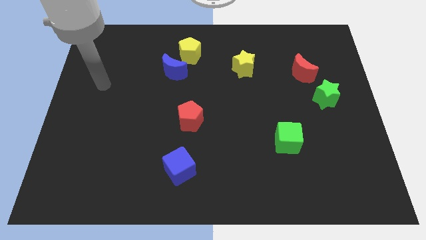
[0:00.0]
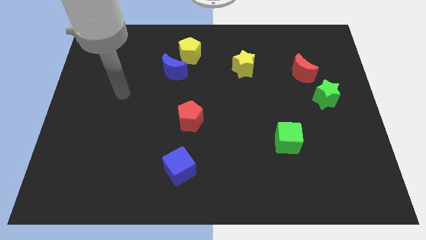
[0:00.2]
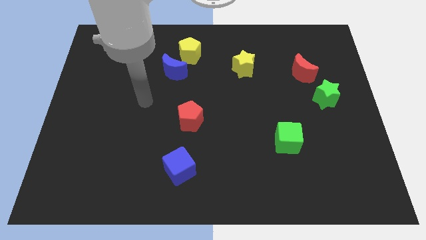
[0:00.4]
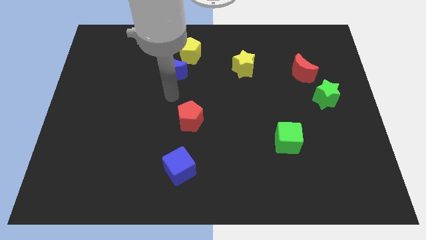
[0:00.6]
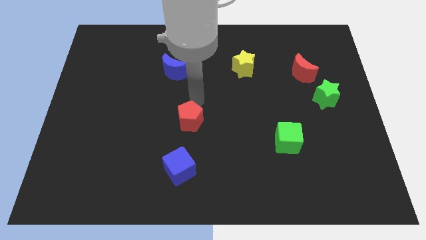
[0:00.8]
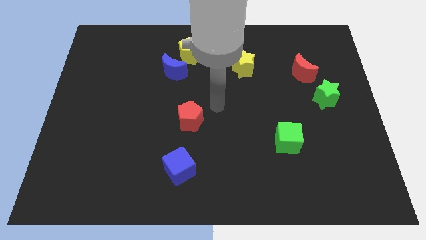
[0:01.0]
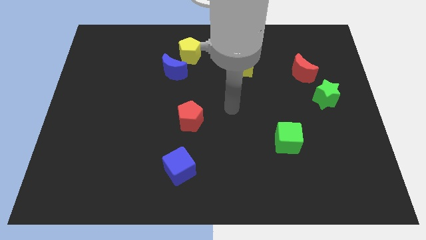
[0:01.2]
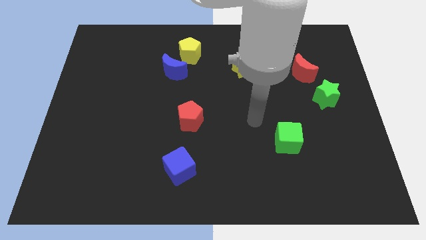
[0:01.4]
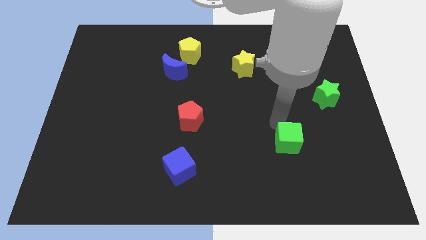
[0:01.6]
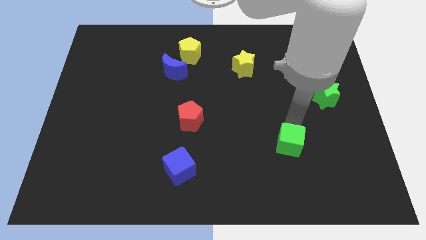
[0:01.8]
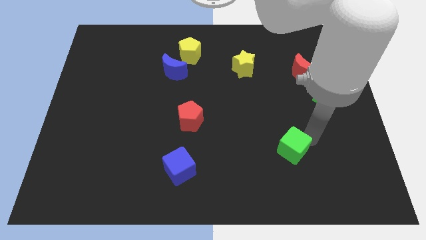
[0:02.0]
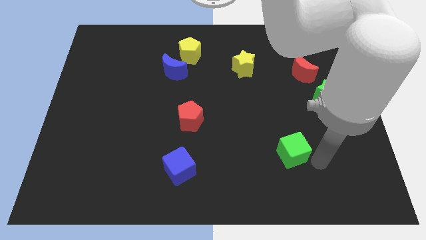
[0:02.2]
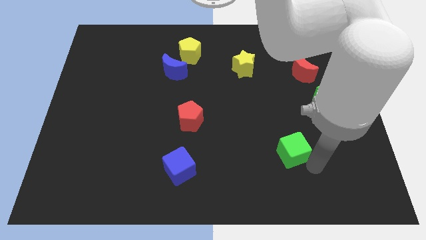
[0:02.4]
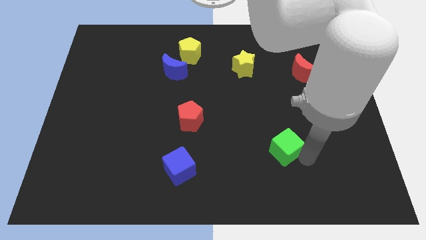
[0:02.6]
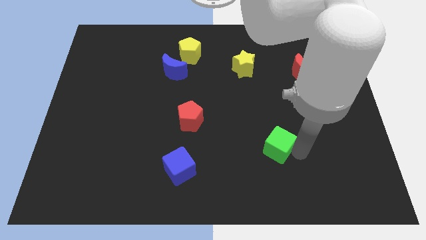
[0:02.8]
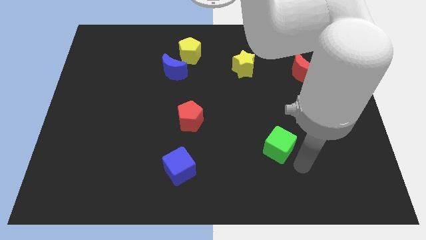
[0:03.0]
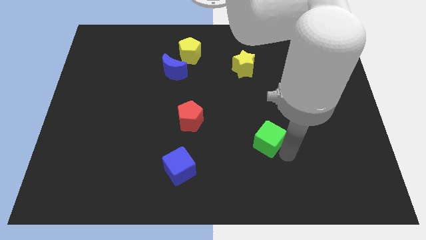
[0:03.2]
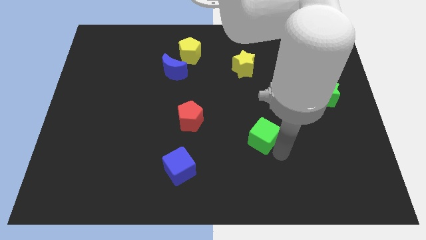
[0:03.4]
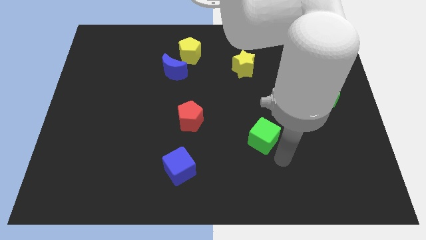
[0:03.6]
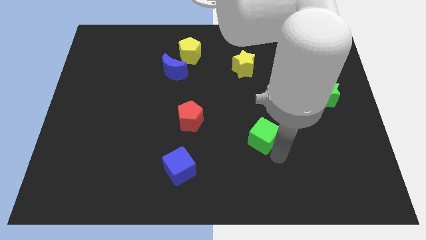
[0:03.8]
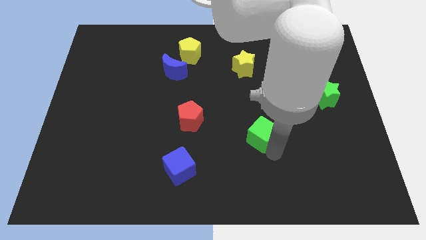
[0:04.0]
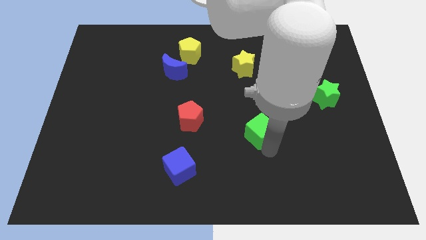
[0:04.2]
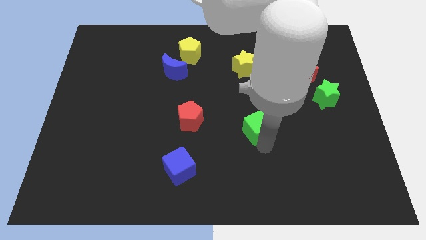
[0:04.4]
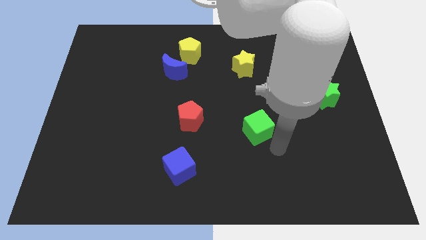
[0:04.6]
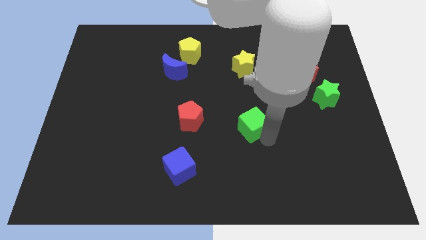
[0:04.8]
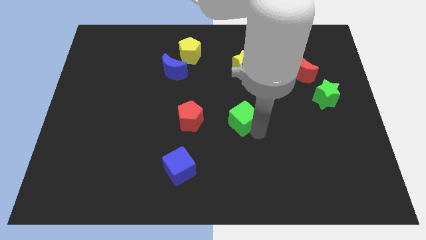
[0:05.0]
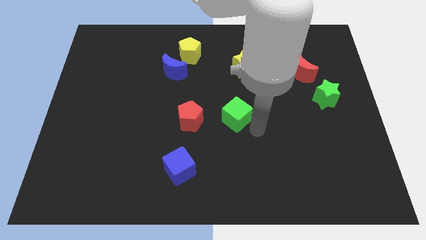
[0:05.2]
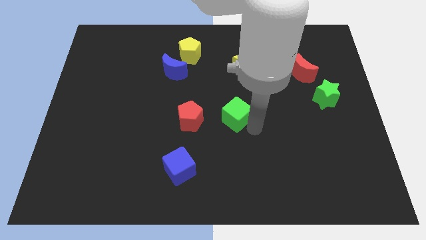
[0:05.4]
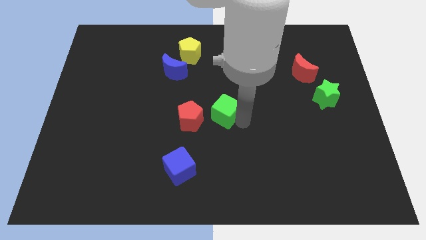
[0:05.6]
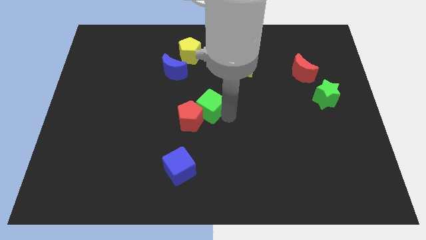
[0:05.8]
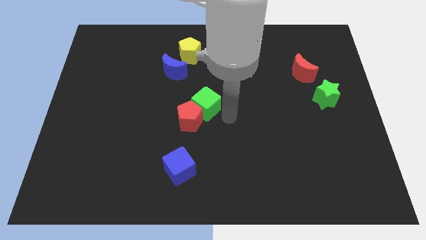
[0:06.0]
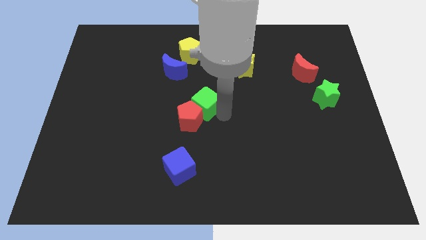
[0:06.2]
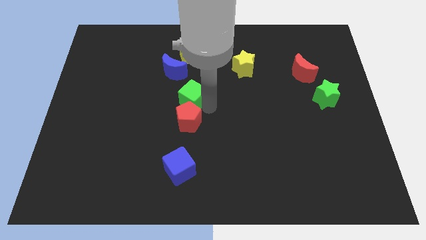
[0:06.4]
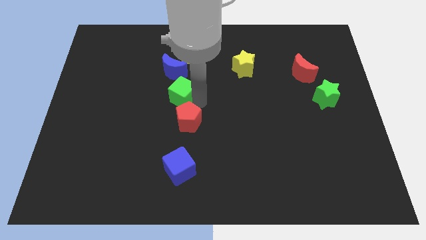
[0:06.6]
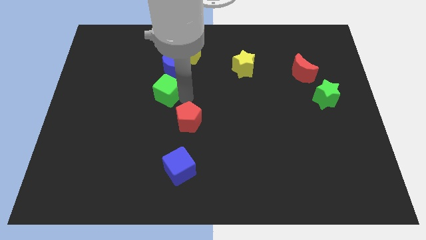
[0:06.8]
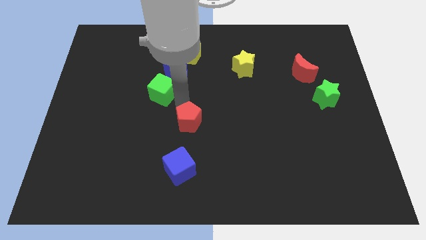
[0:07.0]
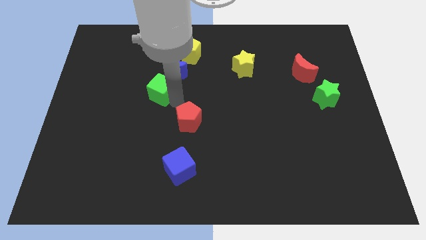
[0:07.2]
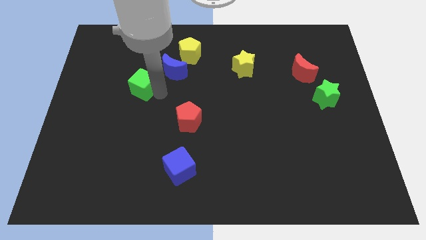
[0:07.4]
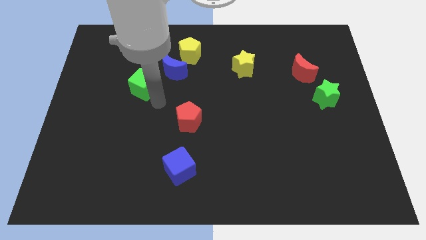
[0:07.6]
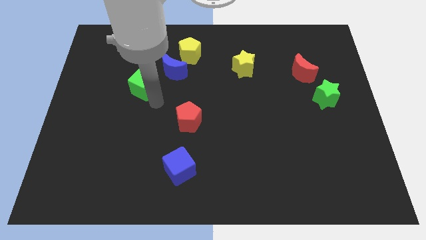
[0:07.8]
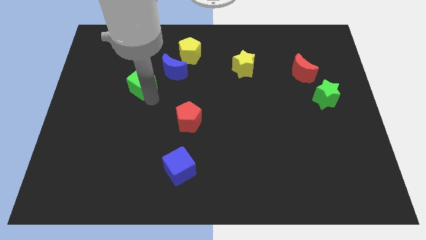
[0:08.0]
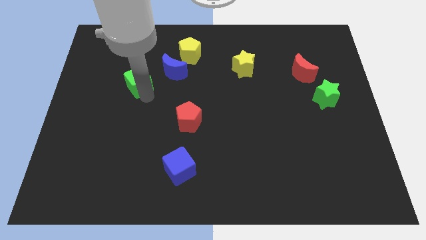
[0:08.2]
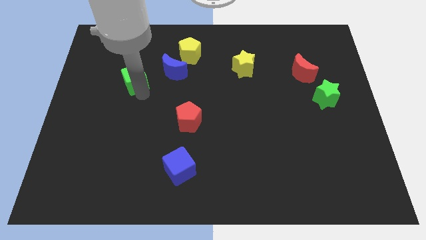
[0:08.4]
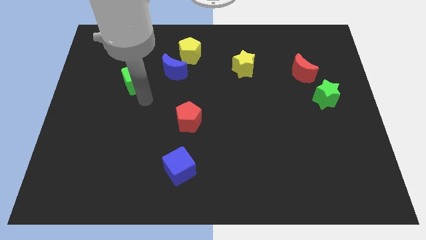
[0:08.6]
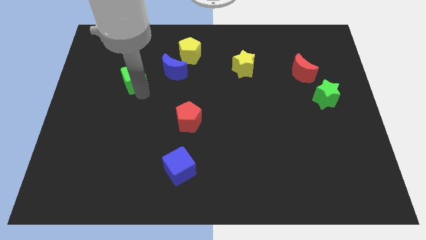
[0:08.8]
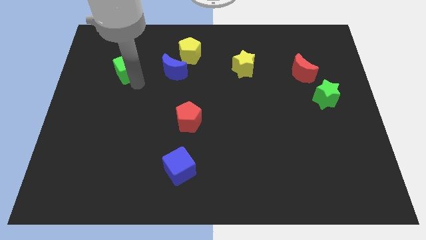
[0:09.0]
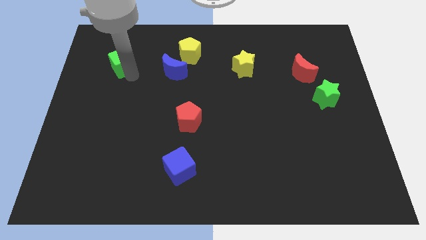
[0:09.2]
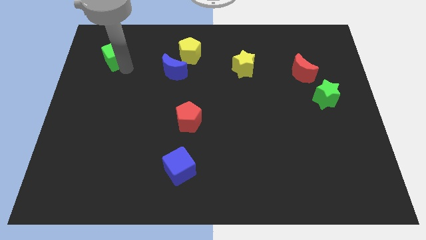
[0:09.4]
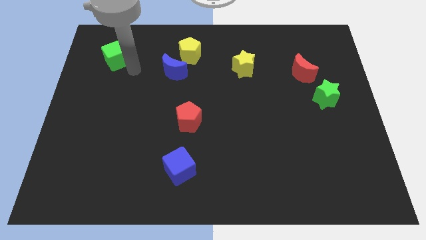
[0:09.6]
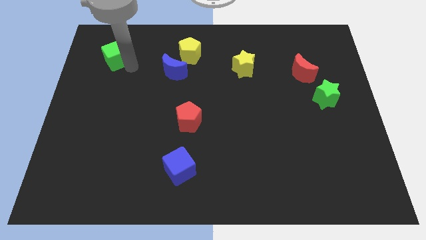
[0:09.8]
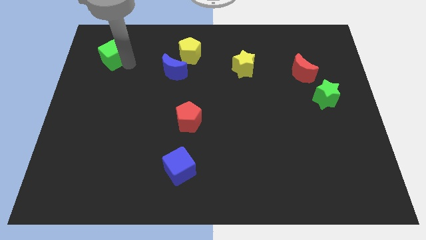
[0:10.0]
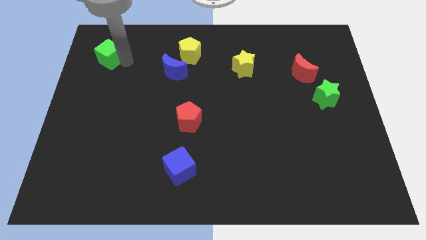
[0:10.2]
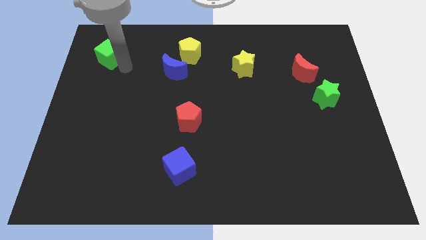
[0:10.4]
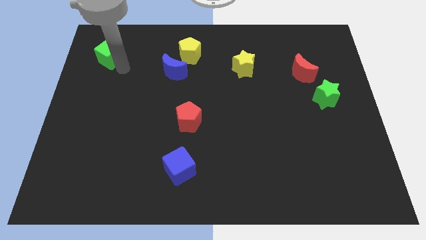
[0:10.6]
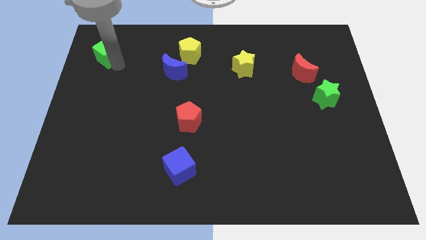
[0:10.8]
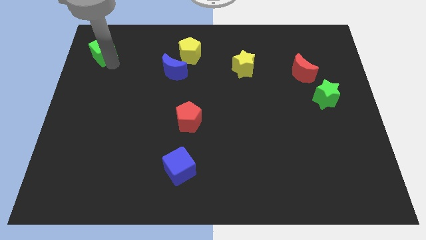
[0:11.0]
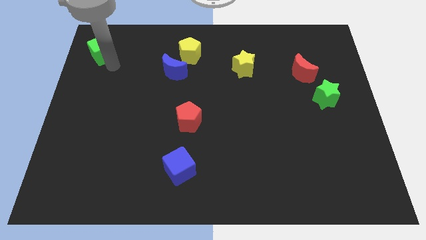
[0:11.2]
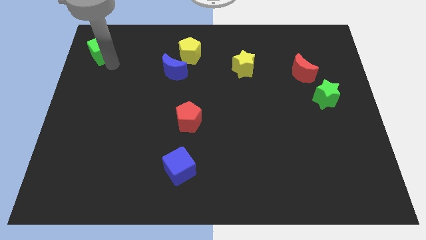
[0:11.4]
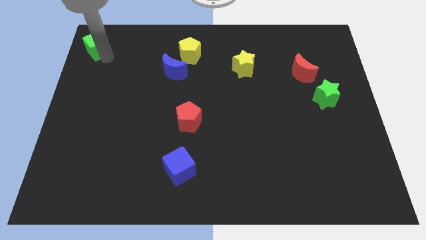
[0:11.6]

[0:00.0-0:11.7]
push the green cube to the top left corner

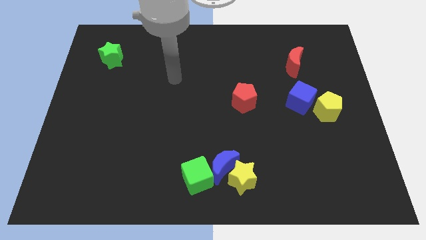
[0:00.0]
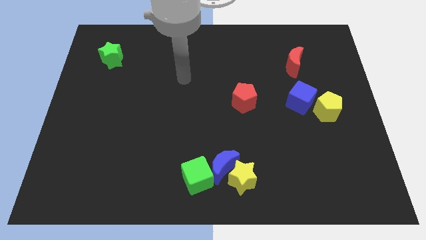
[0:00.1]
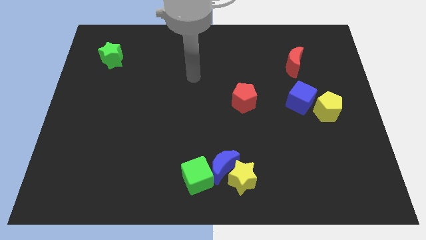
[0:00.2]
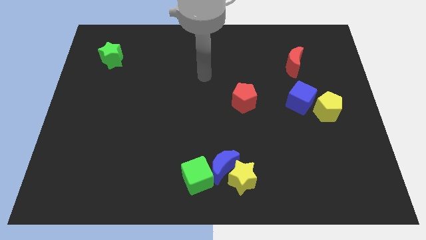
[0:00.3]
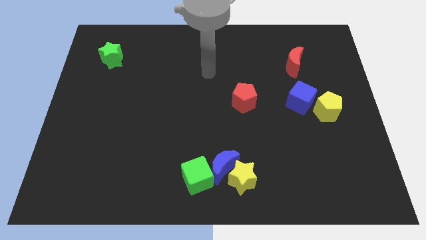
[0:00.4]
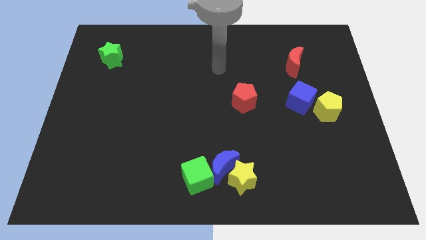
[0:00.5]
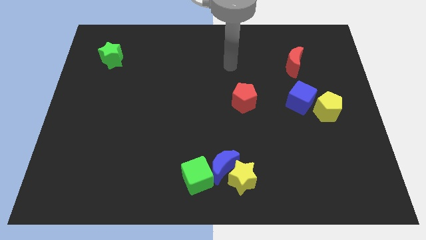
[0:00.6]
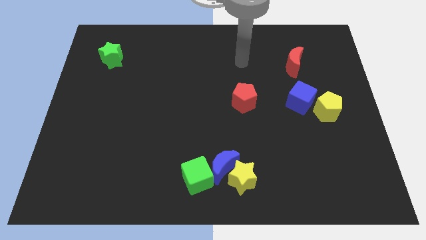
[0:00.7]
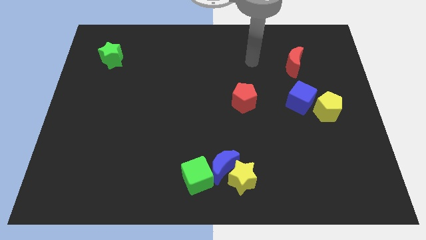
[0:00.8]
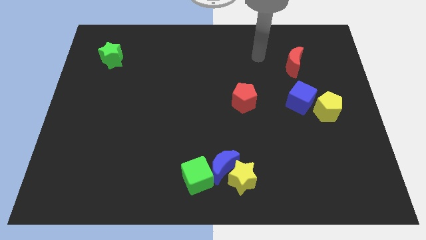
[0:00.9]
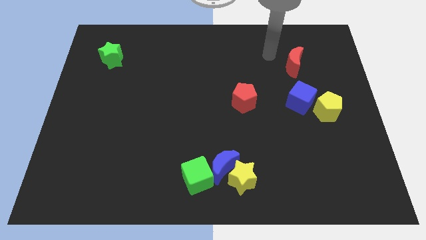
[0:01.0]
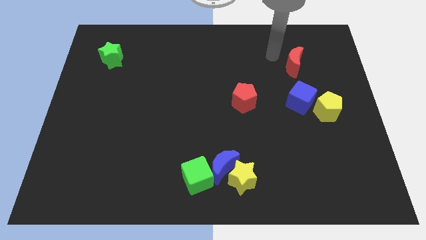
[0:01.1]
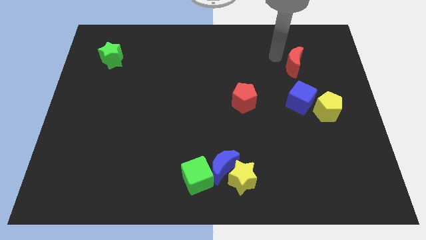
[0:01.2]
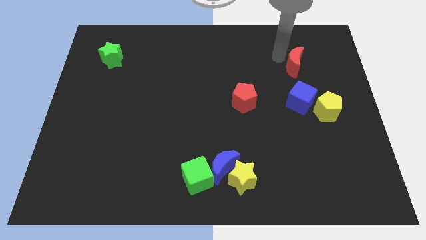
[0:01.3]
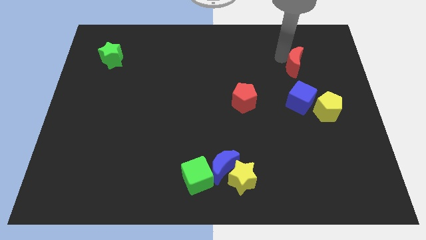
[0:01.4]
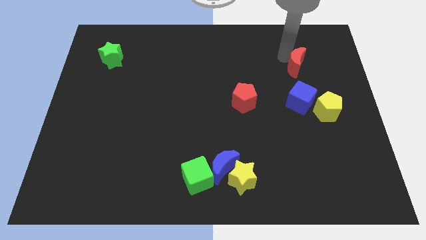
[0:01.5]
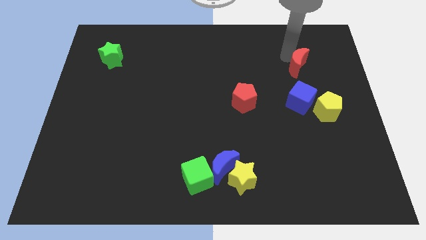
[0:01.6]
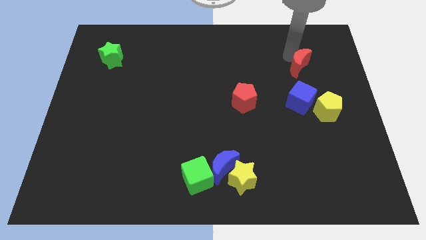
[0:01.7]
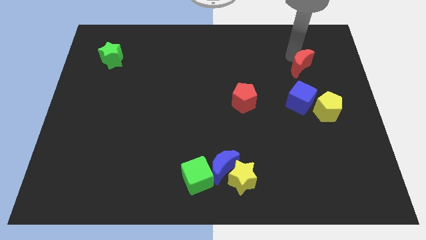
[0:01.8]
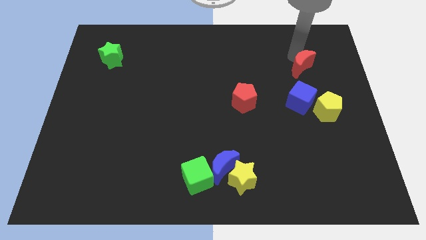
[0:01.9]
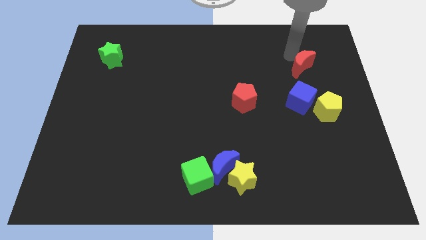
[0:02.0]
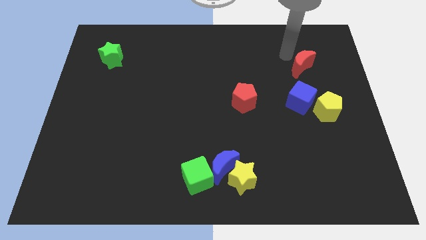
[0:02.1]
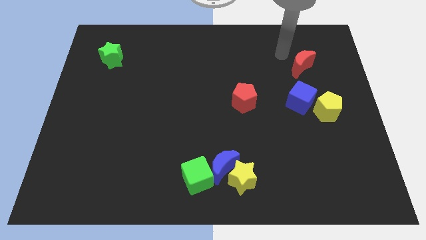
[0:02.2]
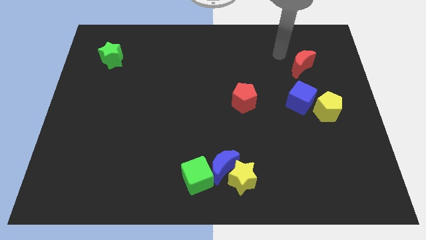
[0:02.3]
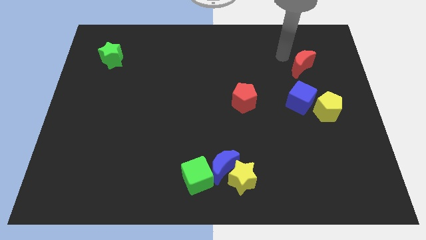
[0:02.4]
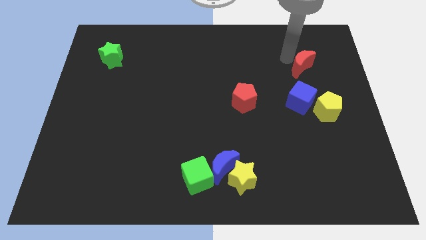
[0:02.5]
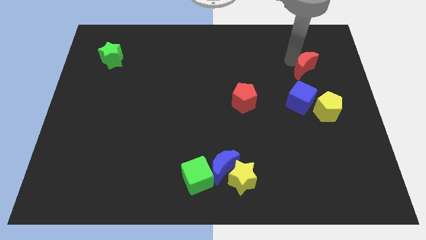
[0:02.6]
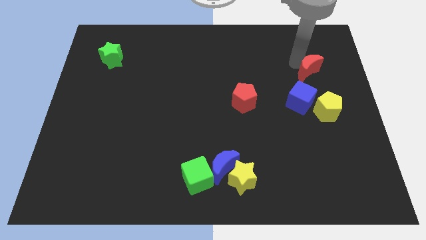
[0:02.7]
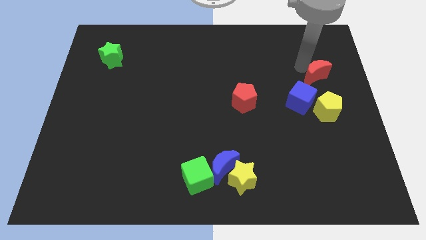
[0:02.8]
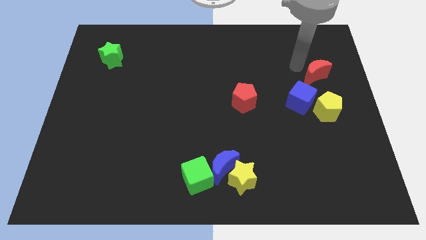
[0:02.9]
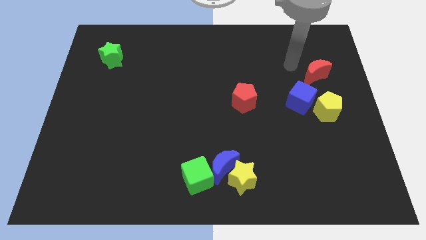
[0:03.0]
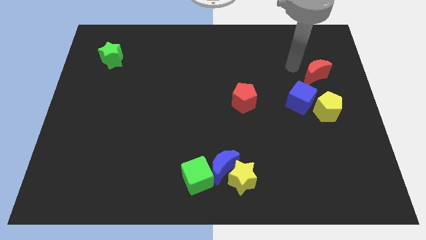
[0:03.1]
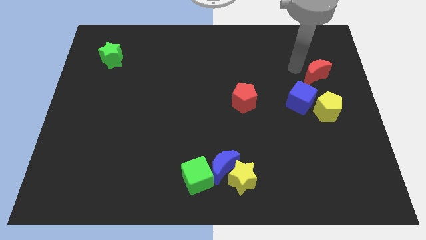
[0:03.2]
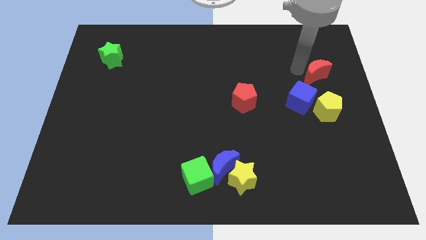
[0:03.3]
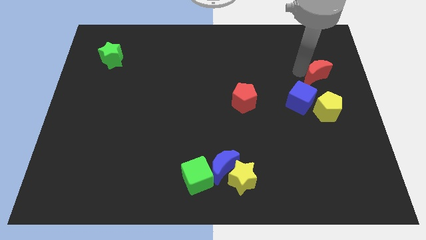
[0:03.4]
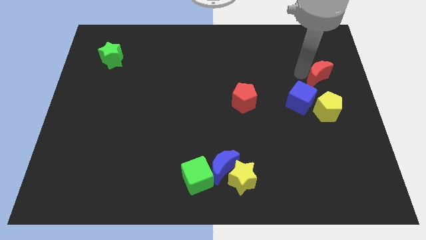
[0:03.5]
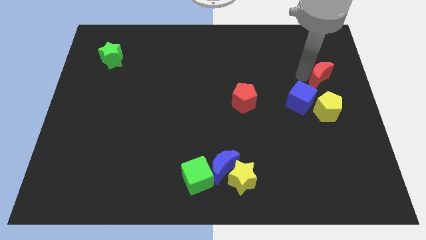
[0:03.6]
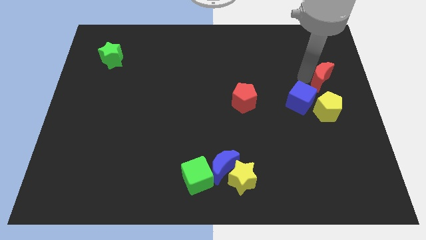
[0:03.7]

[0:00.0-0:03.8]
put the red moon to the center right
